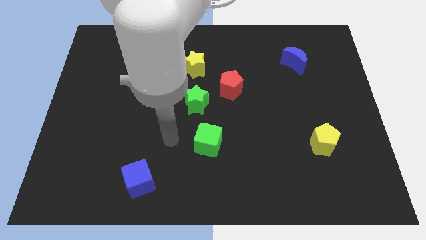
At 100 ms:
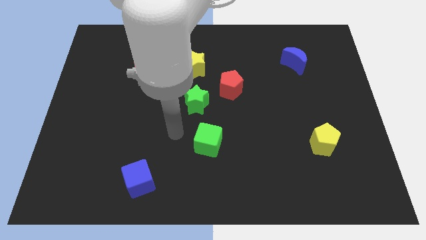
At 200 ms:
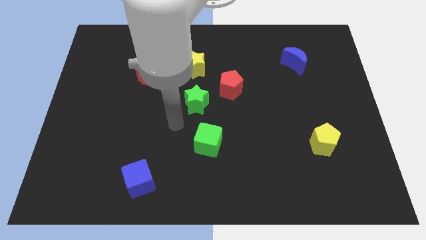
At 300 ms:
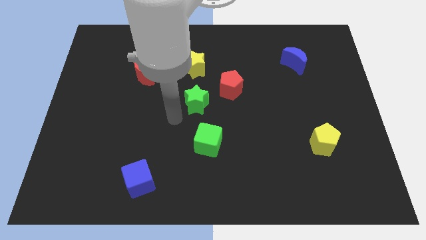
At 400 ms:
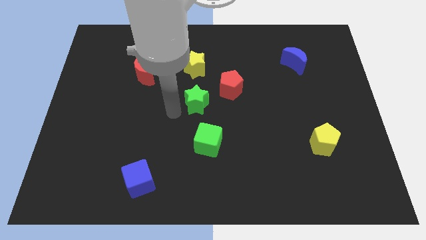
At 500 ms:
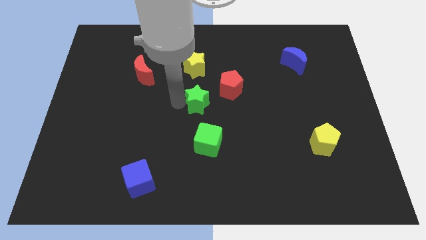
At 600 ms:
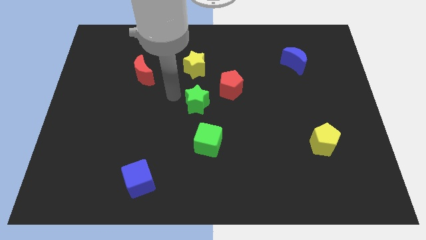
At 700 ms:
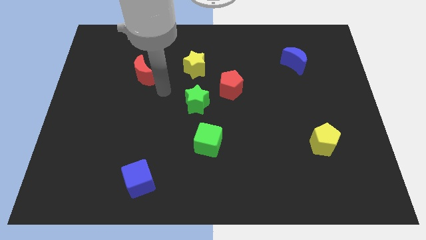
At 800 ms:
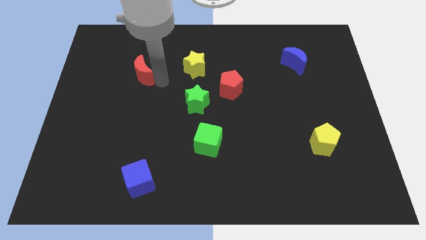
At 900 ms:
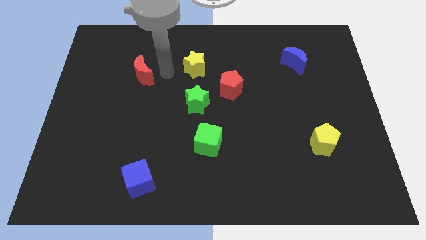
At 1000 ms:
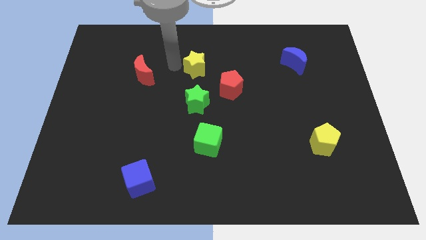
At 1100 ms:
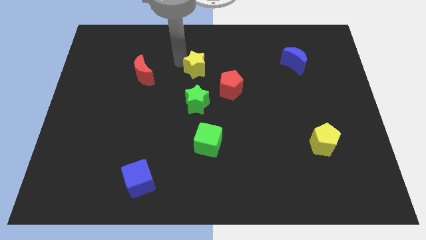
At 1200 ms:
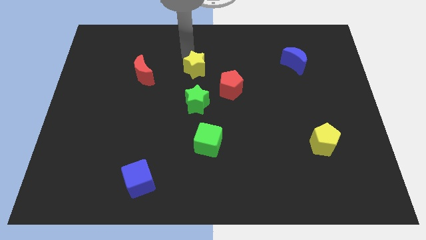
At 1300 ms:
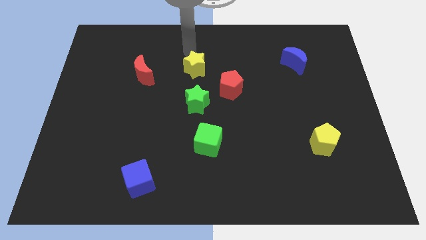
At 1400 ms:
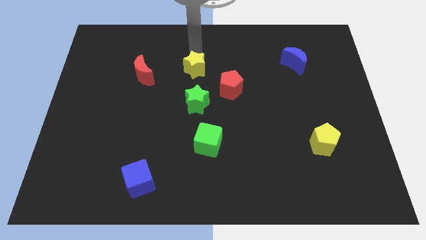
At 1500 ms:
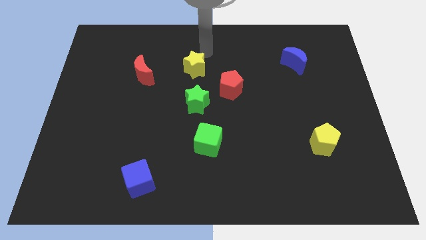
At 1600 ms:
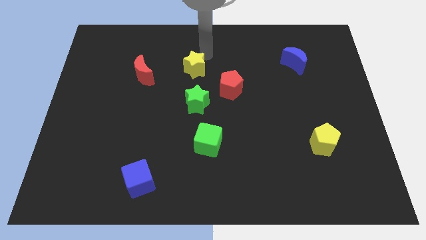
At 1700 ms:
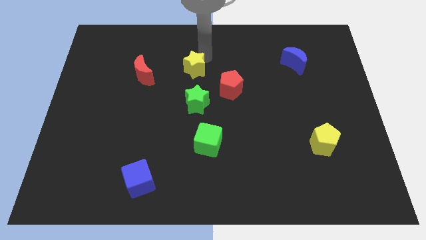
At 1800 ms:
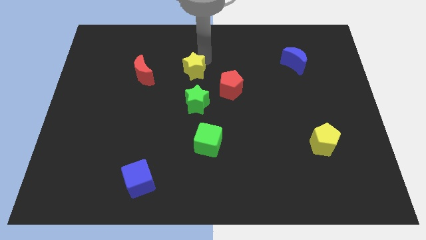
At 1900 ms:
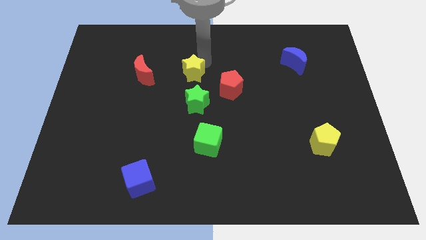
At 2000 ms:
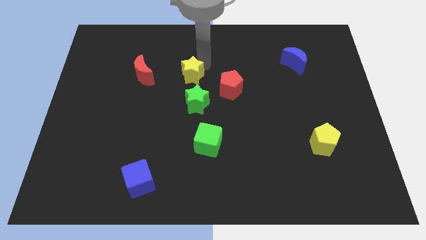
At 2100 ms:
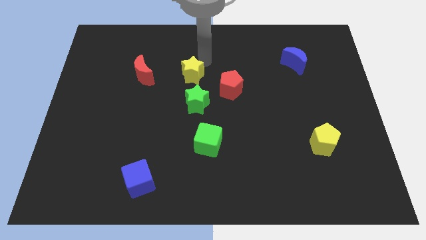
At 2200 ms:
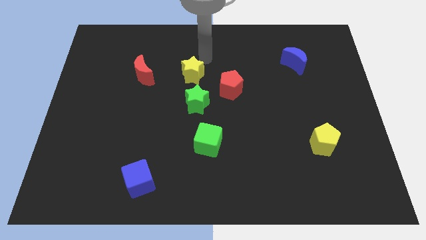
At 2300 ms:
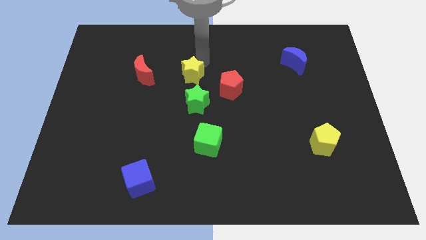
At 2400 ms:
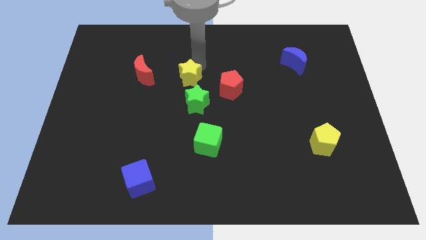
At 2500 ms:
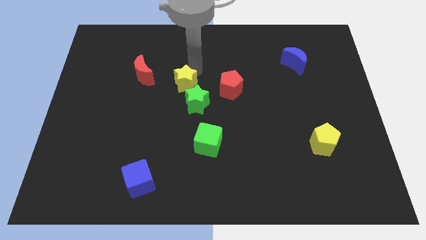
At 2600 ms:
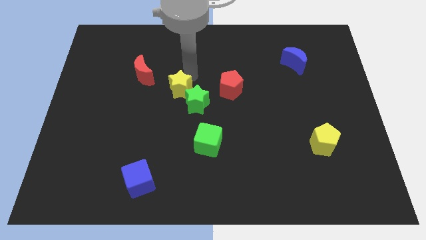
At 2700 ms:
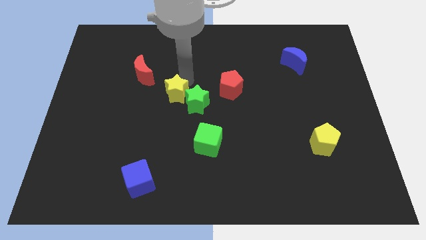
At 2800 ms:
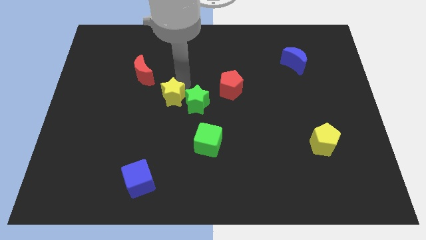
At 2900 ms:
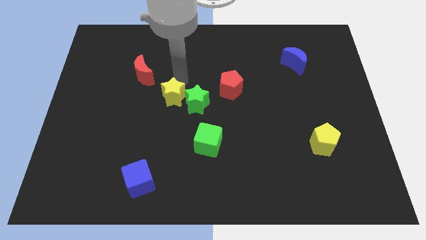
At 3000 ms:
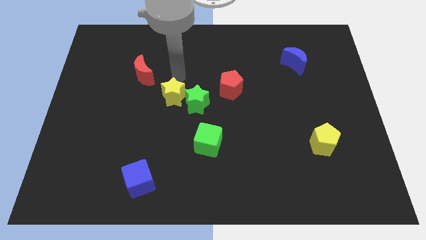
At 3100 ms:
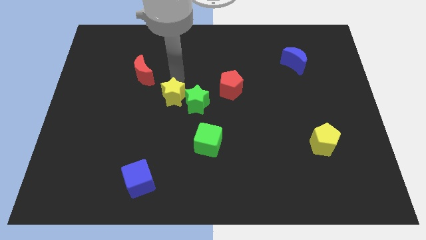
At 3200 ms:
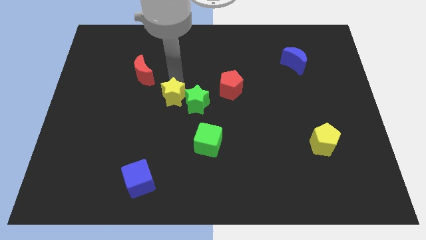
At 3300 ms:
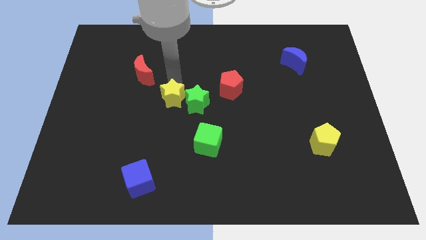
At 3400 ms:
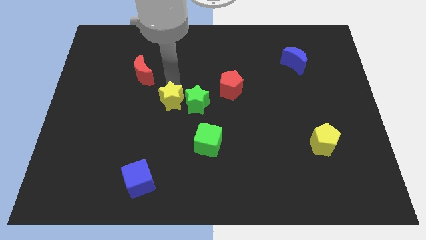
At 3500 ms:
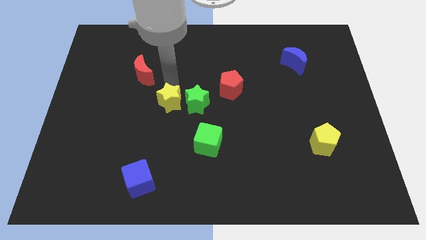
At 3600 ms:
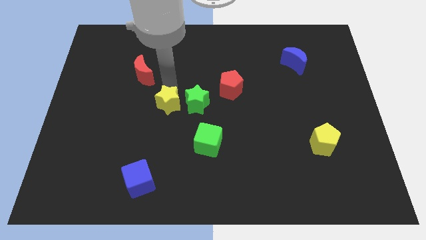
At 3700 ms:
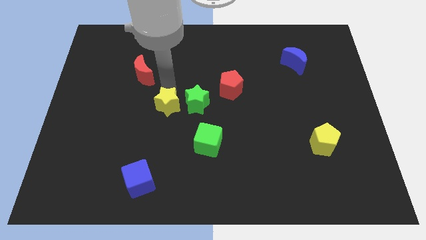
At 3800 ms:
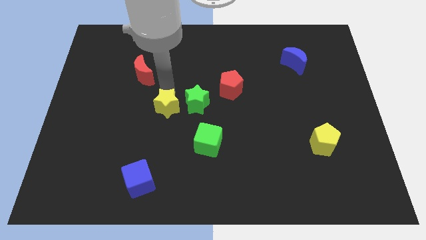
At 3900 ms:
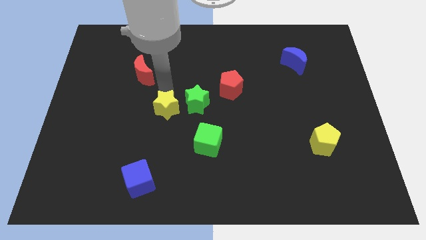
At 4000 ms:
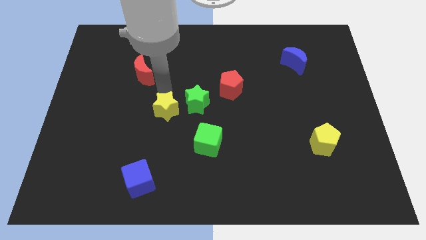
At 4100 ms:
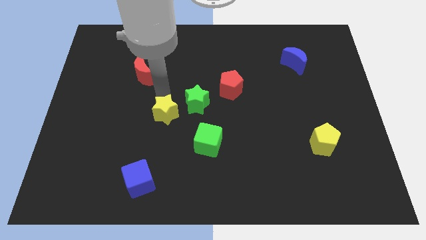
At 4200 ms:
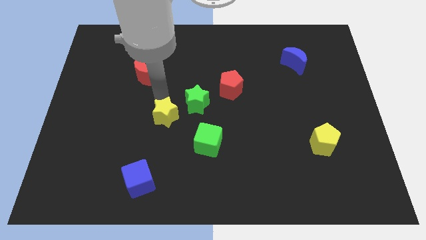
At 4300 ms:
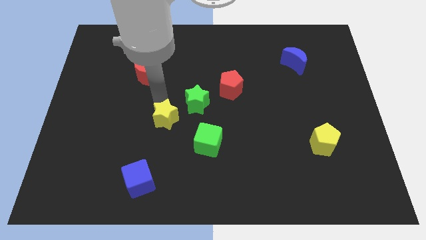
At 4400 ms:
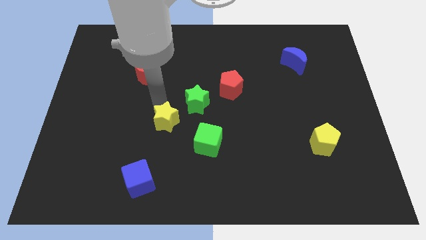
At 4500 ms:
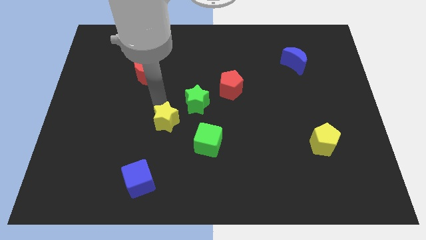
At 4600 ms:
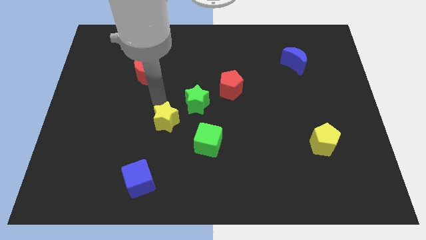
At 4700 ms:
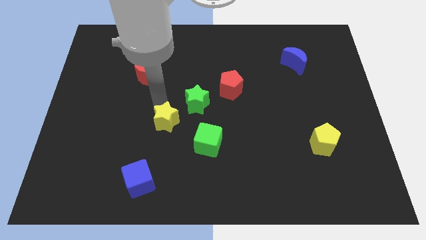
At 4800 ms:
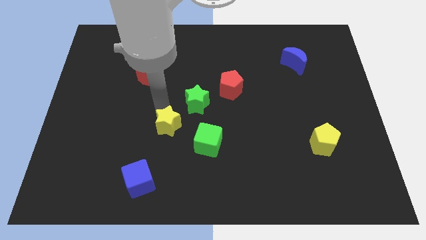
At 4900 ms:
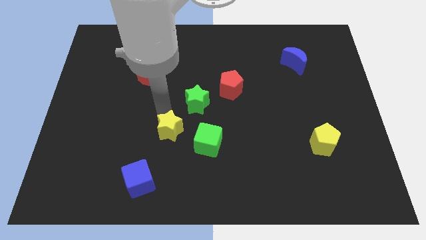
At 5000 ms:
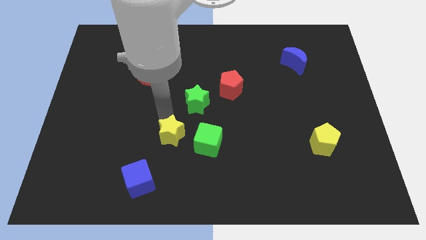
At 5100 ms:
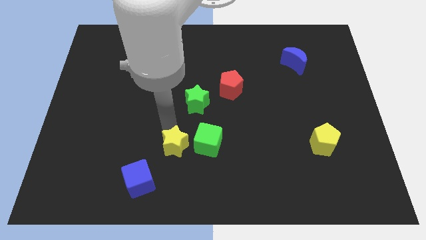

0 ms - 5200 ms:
slide the yellow star to the bottom left side of the green cube
